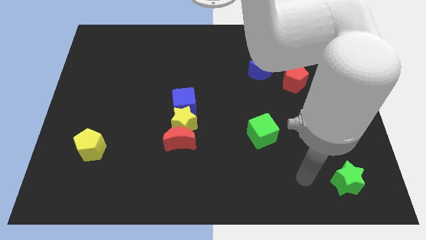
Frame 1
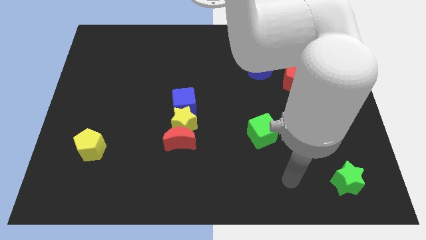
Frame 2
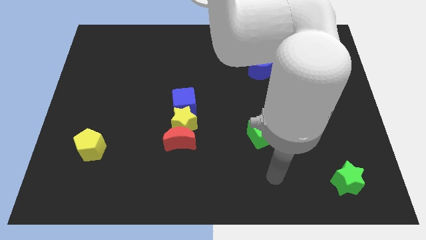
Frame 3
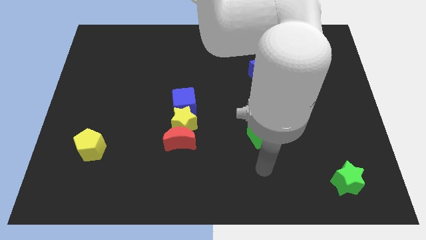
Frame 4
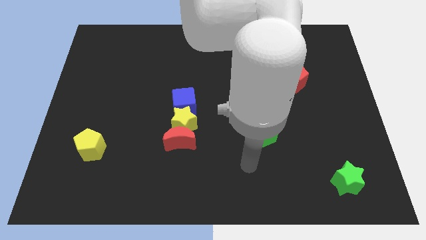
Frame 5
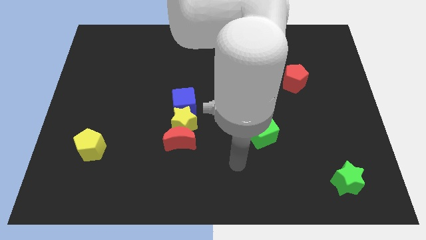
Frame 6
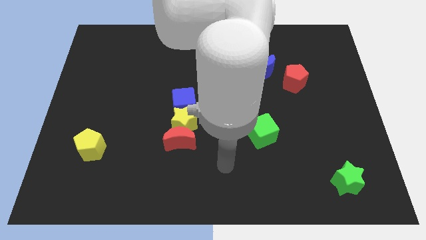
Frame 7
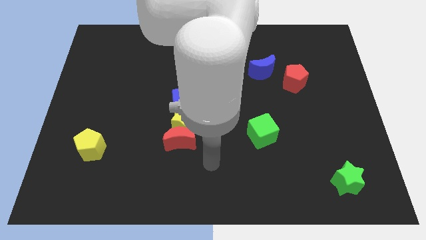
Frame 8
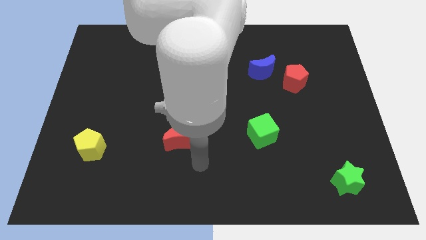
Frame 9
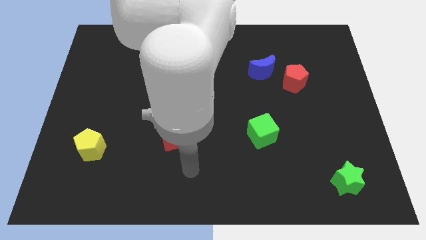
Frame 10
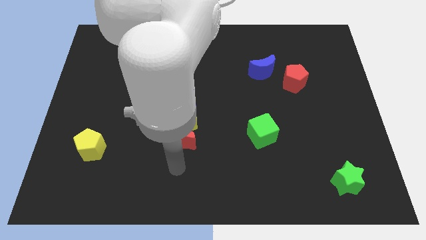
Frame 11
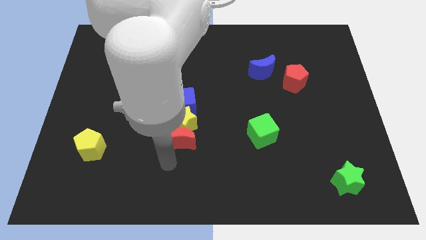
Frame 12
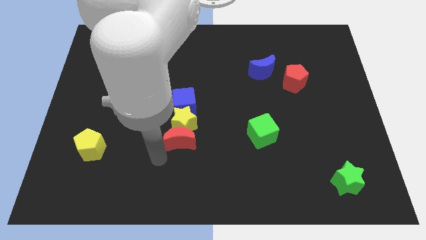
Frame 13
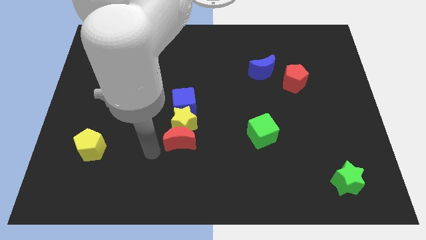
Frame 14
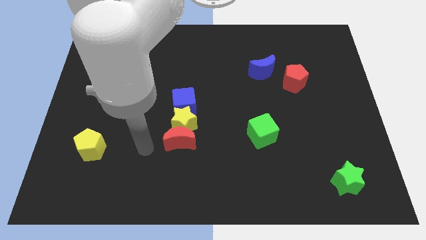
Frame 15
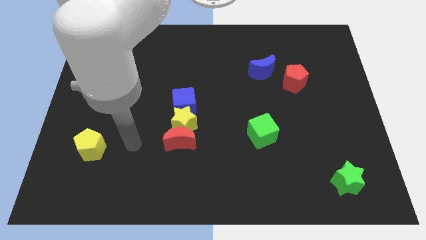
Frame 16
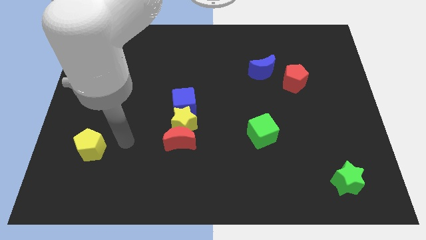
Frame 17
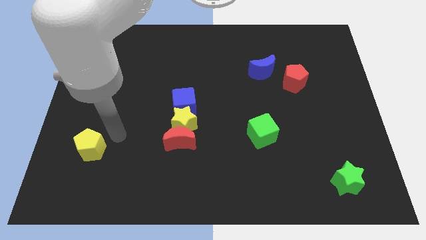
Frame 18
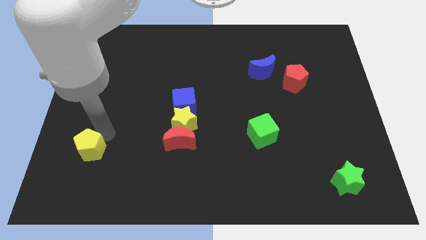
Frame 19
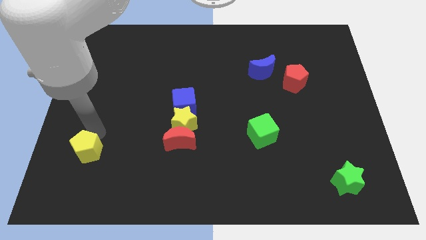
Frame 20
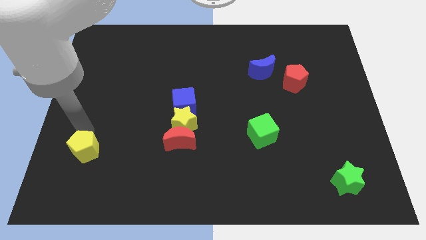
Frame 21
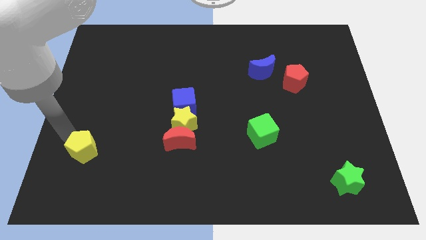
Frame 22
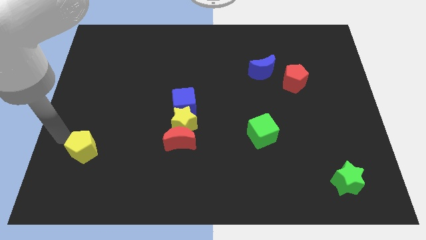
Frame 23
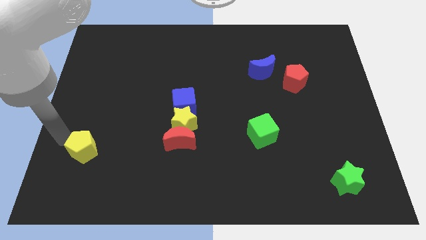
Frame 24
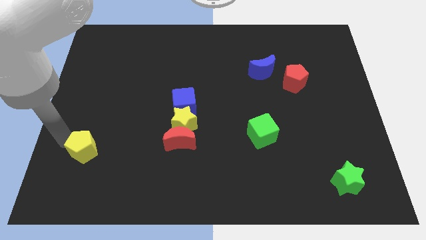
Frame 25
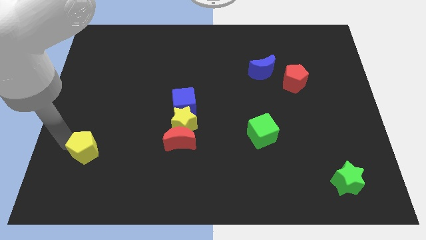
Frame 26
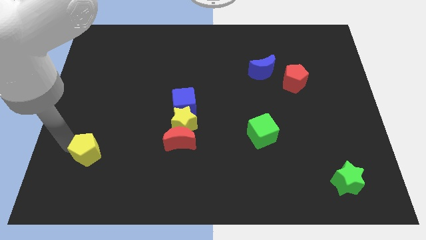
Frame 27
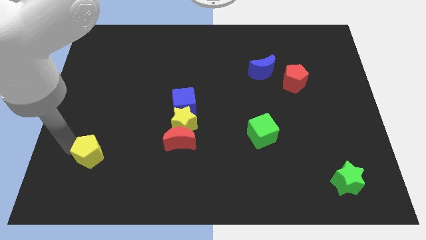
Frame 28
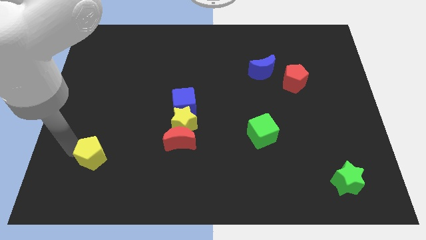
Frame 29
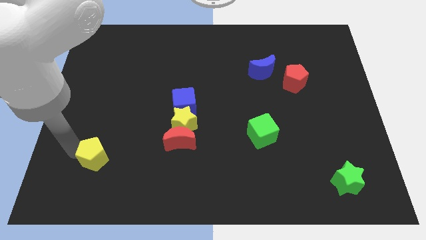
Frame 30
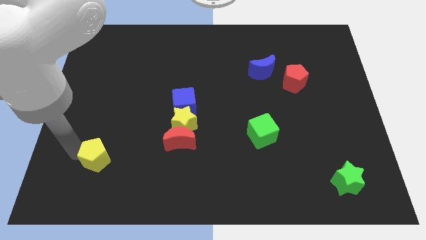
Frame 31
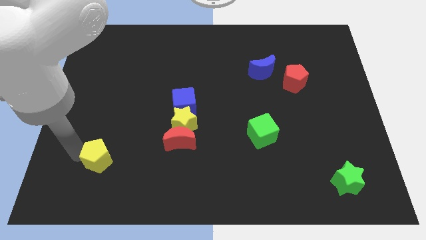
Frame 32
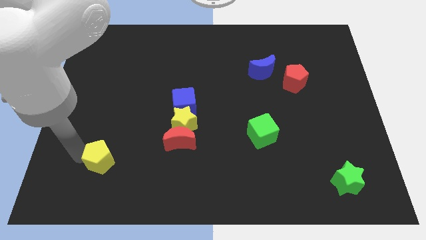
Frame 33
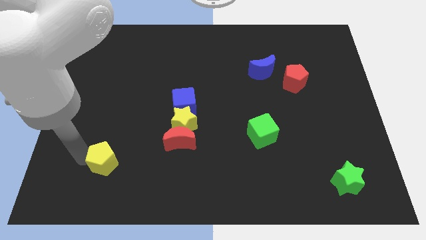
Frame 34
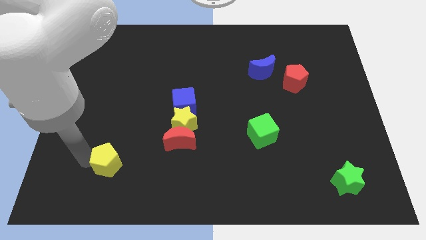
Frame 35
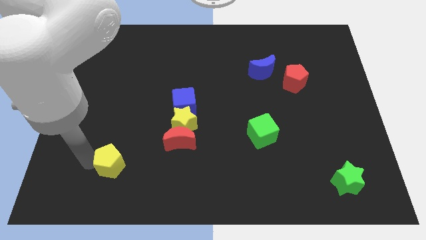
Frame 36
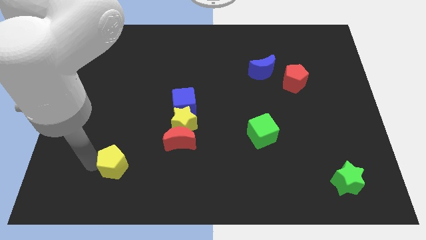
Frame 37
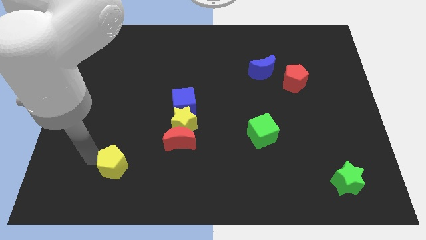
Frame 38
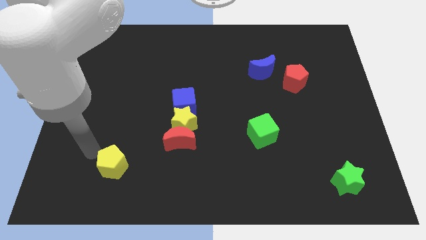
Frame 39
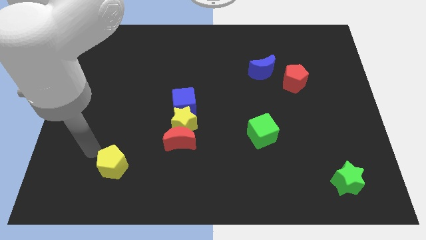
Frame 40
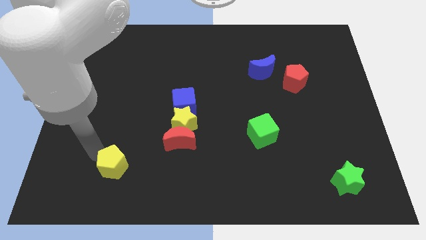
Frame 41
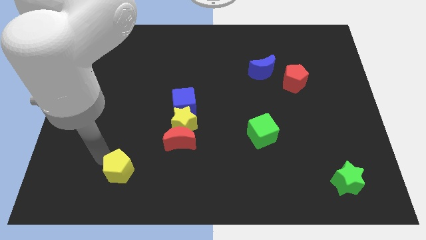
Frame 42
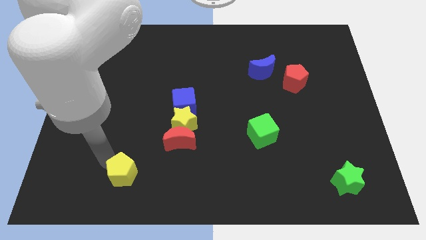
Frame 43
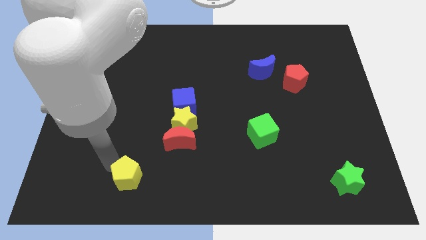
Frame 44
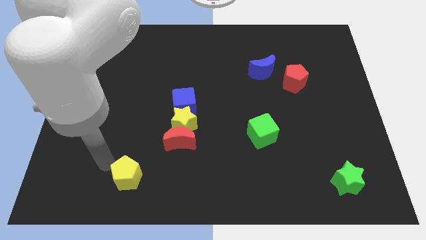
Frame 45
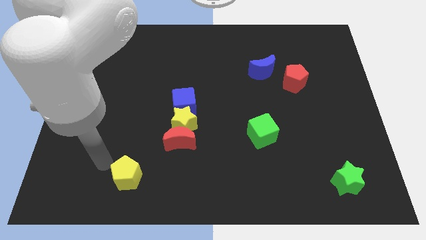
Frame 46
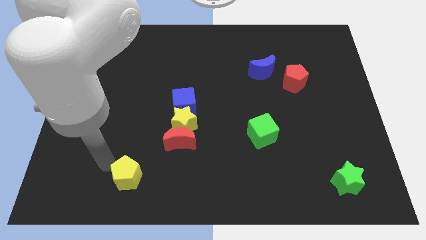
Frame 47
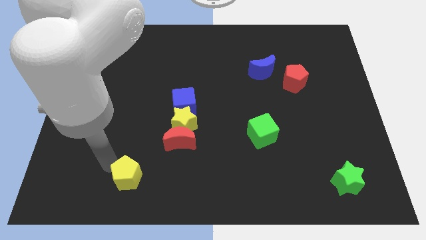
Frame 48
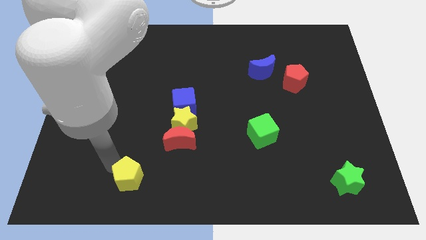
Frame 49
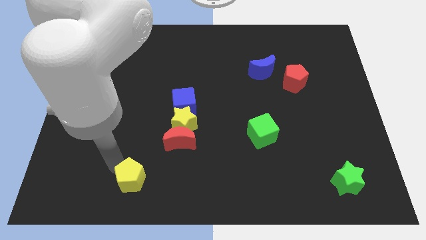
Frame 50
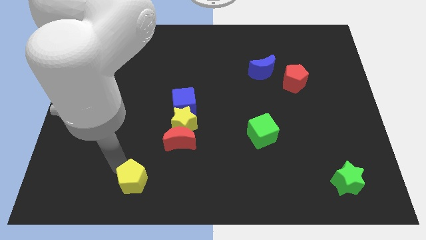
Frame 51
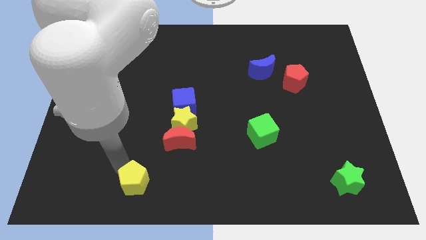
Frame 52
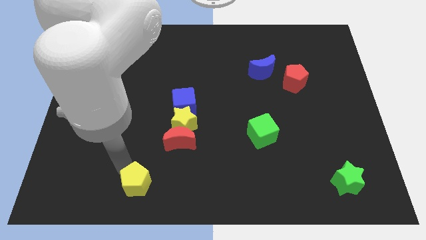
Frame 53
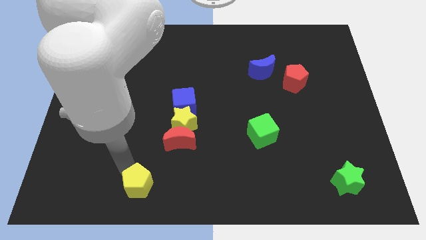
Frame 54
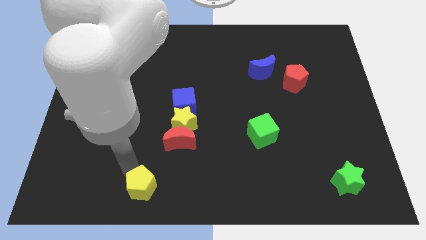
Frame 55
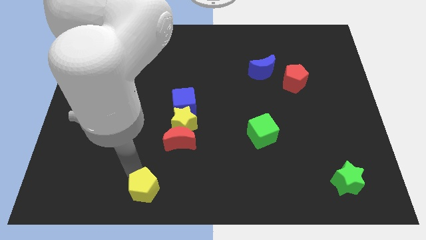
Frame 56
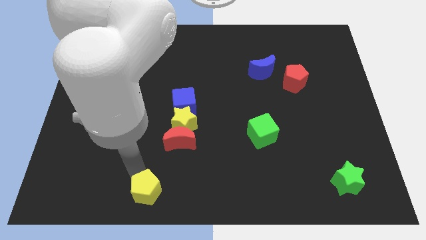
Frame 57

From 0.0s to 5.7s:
move the yellow pentagon to the bottom

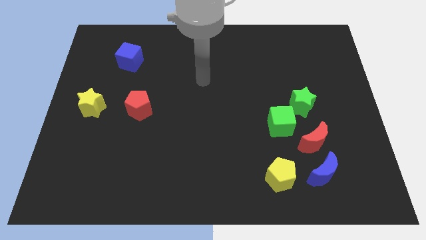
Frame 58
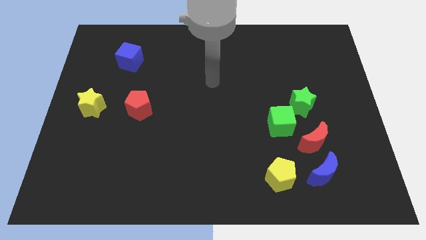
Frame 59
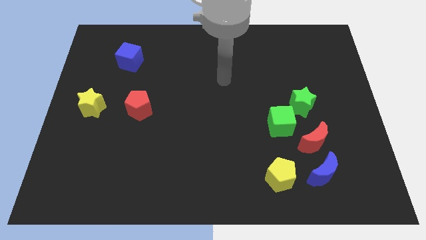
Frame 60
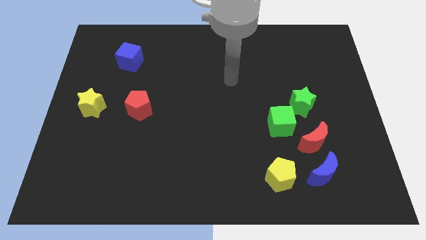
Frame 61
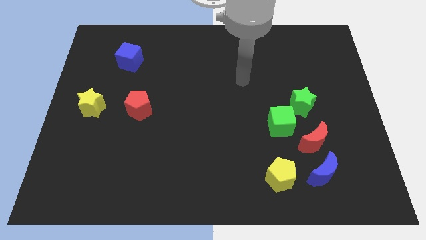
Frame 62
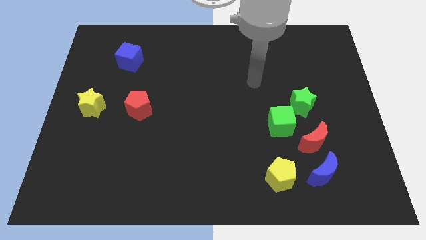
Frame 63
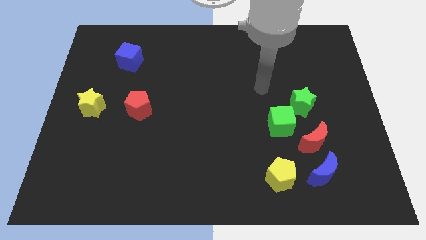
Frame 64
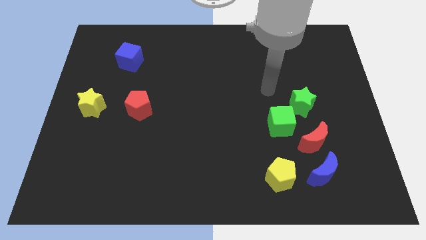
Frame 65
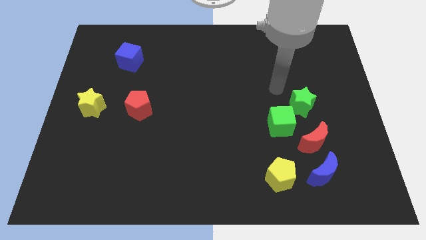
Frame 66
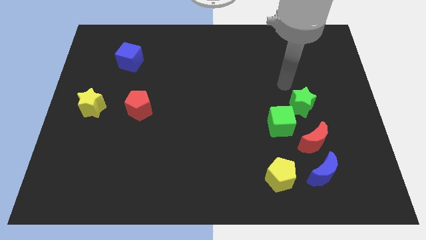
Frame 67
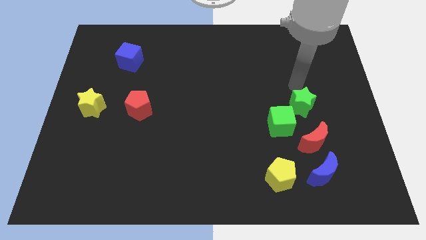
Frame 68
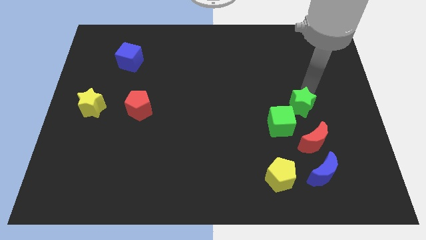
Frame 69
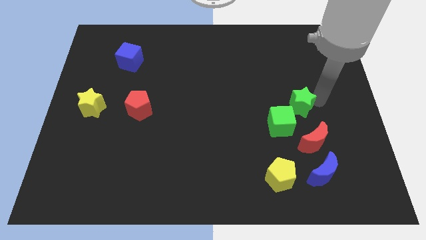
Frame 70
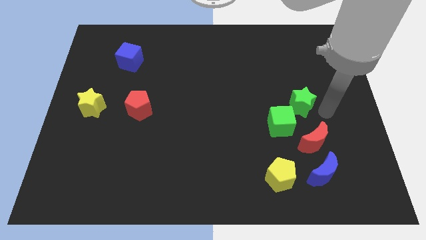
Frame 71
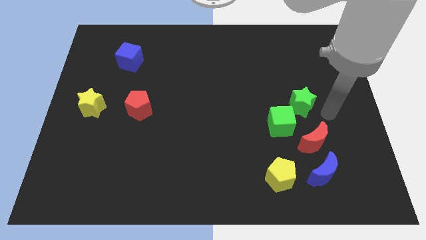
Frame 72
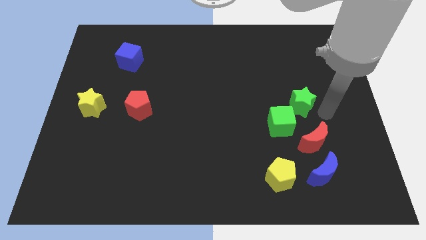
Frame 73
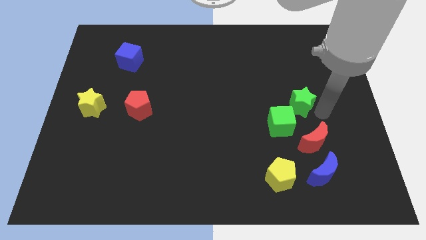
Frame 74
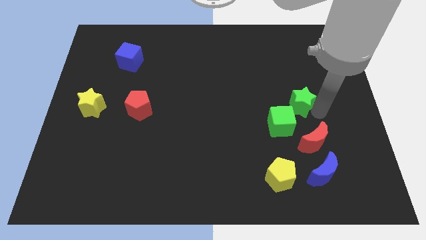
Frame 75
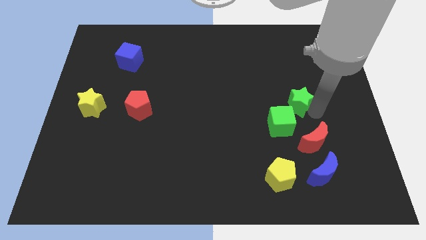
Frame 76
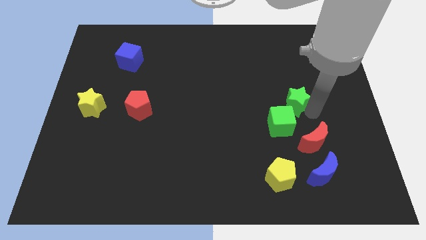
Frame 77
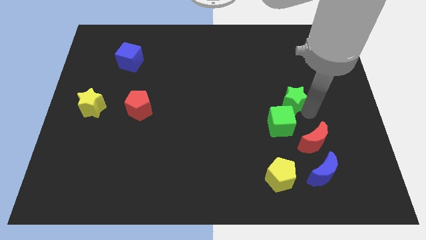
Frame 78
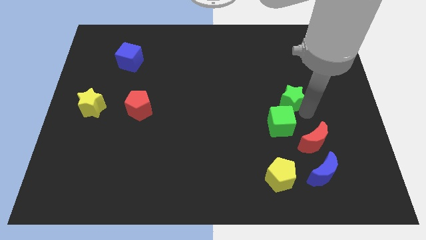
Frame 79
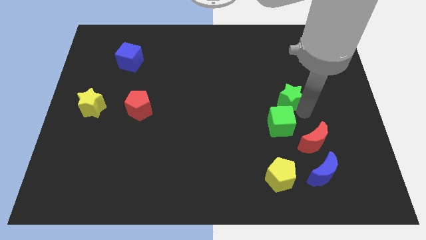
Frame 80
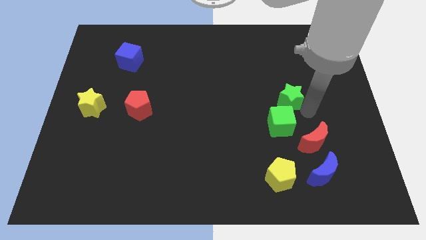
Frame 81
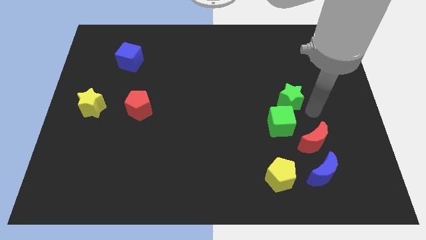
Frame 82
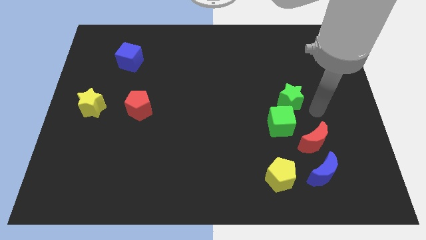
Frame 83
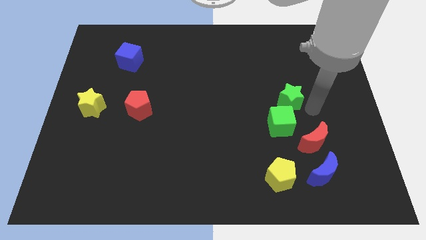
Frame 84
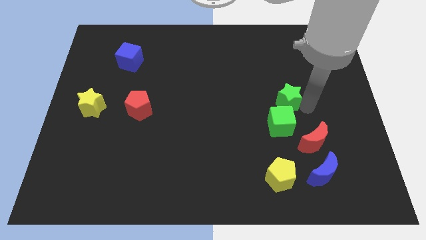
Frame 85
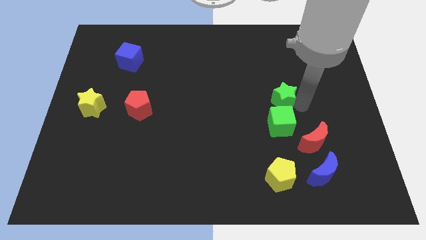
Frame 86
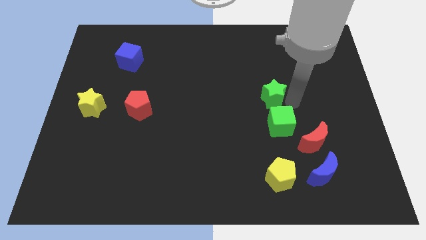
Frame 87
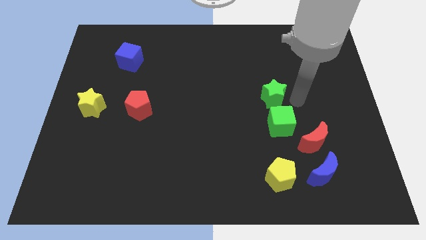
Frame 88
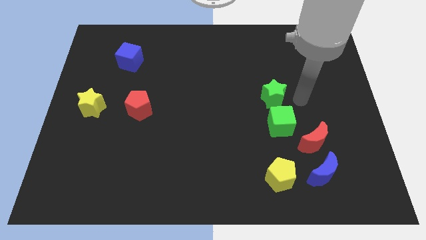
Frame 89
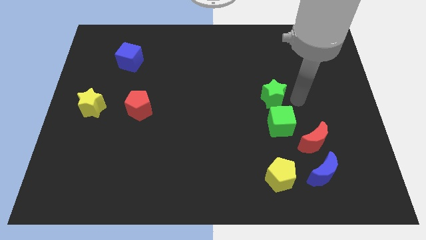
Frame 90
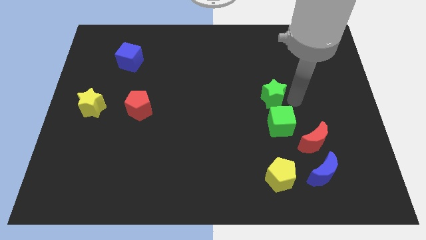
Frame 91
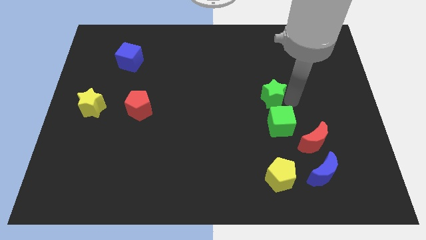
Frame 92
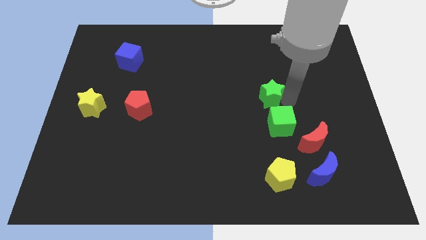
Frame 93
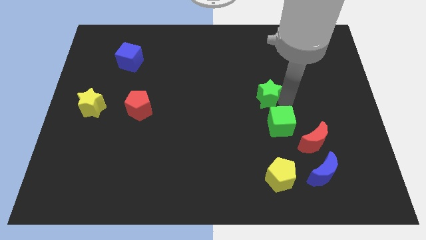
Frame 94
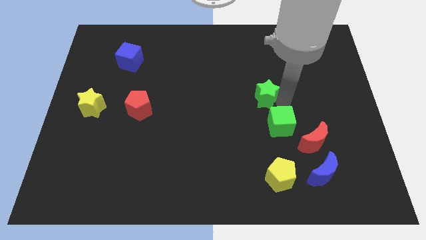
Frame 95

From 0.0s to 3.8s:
slide the green star to the middle
